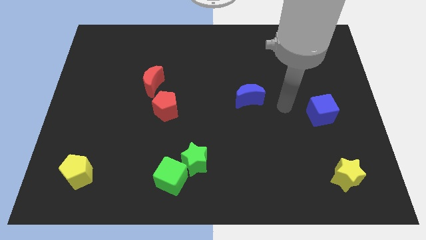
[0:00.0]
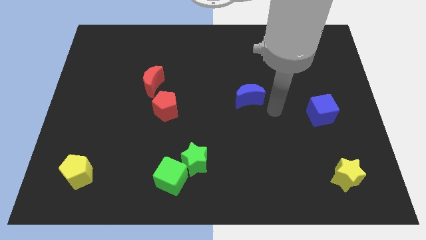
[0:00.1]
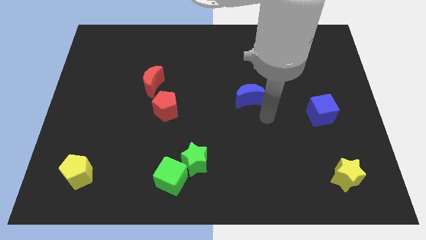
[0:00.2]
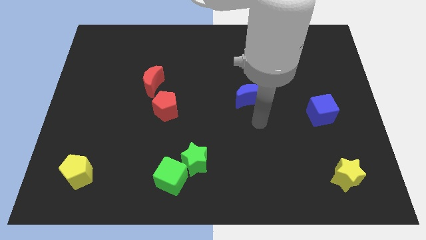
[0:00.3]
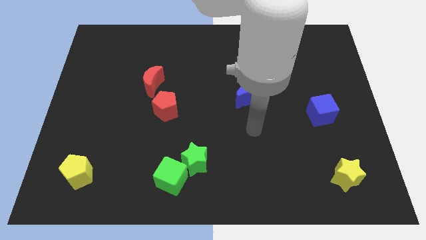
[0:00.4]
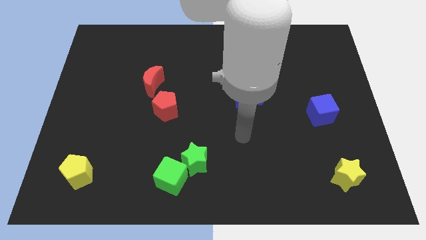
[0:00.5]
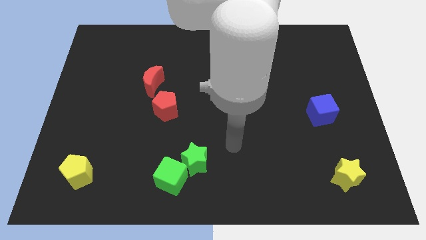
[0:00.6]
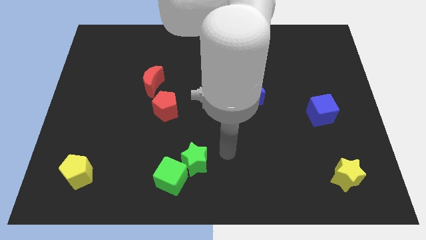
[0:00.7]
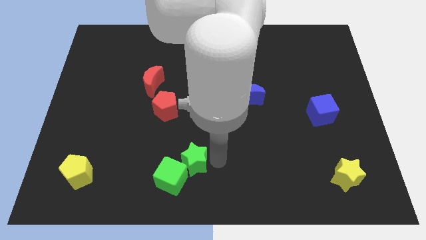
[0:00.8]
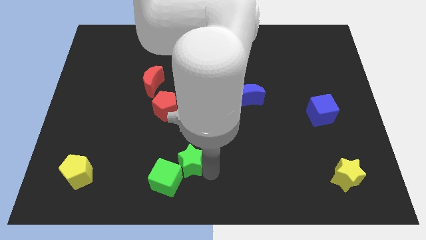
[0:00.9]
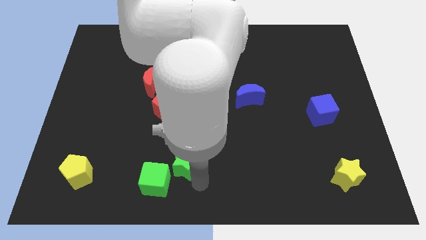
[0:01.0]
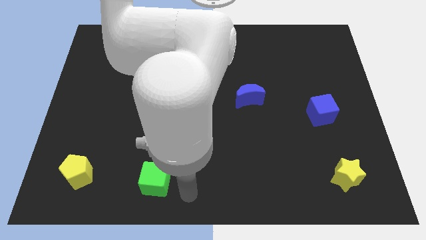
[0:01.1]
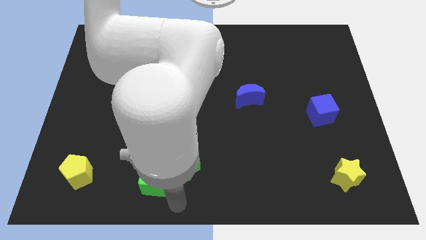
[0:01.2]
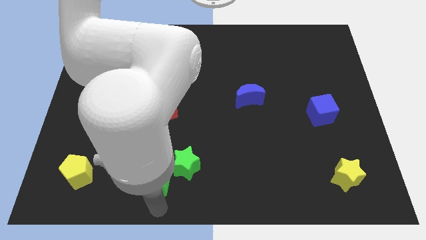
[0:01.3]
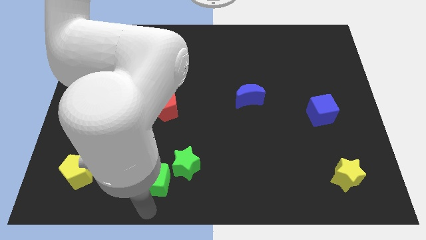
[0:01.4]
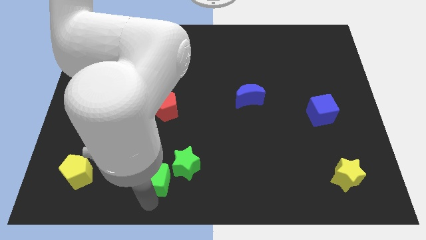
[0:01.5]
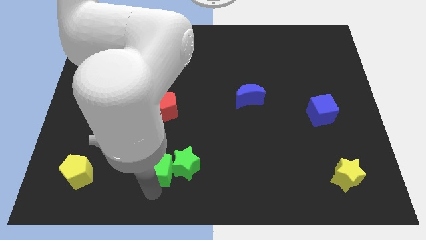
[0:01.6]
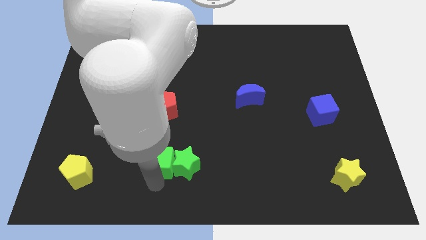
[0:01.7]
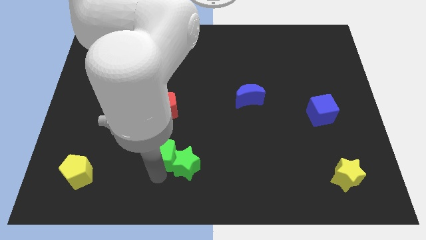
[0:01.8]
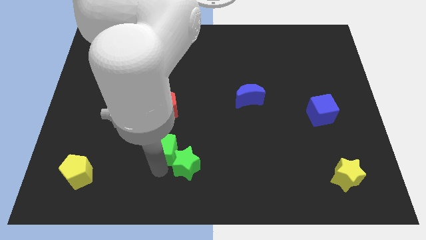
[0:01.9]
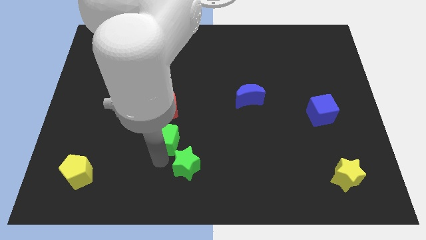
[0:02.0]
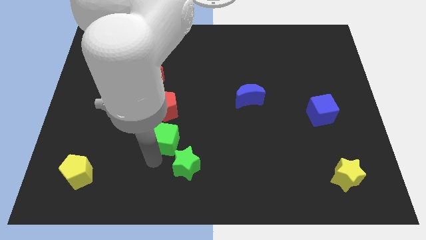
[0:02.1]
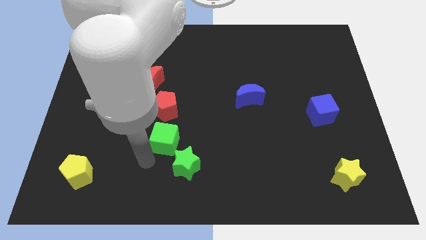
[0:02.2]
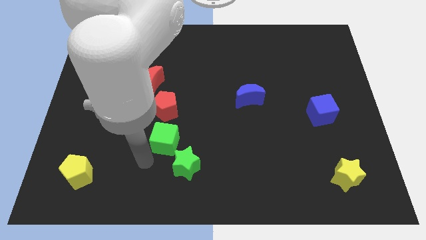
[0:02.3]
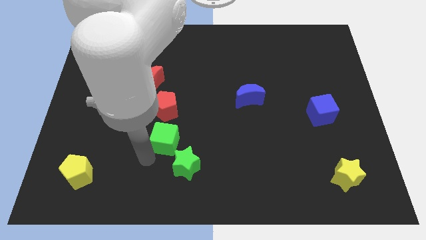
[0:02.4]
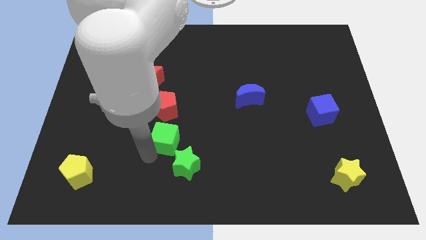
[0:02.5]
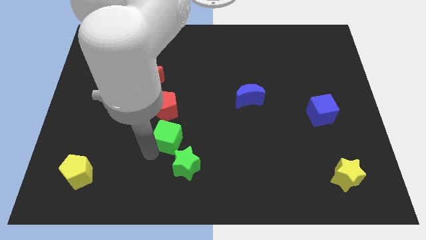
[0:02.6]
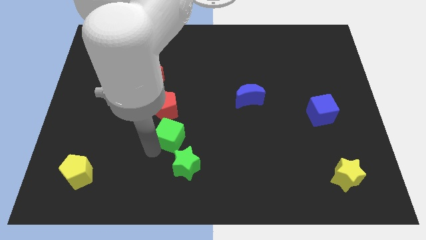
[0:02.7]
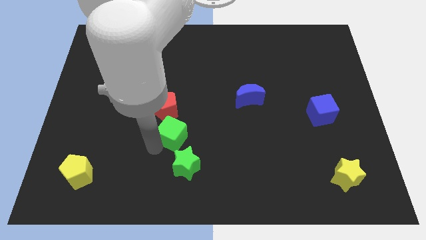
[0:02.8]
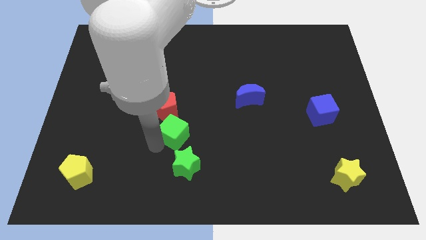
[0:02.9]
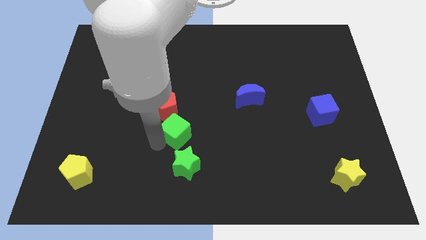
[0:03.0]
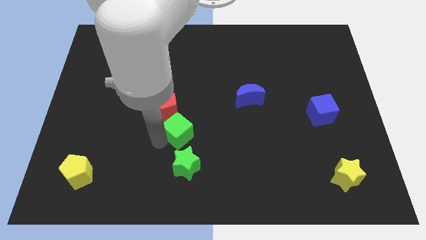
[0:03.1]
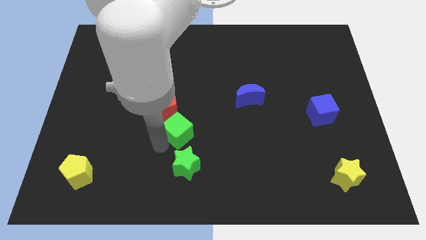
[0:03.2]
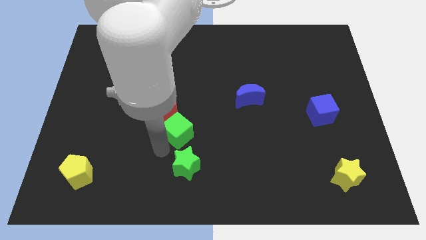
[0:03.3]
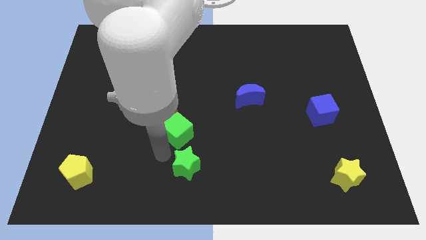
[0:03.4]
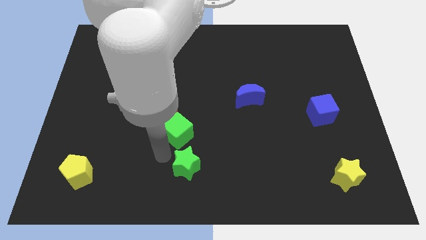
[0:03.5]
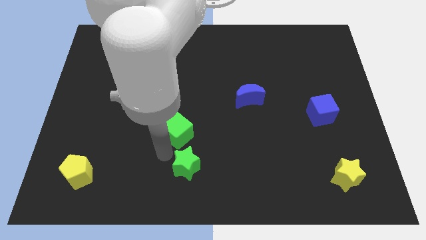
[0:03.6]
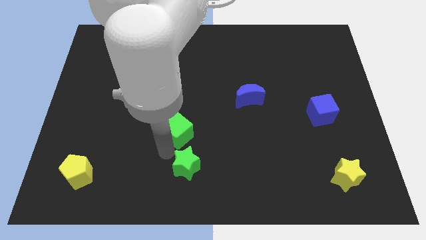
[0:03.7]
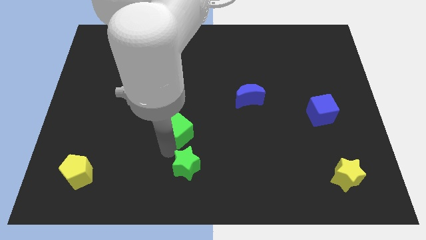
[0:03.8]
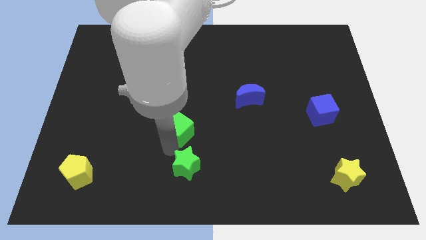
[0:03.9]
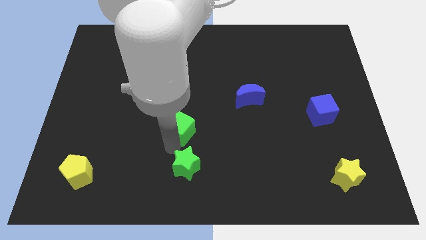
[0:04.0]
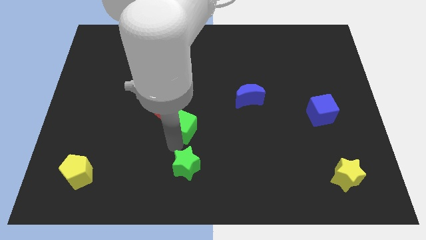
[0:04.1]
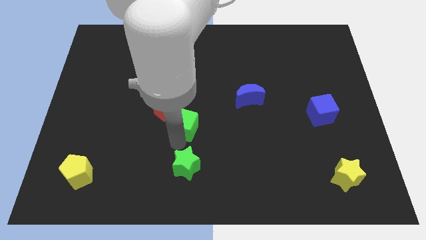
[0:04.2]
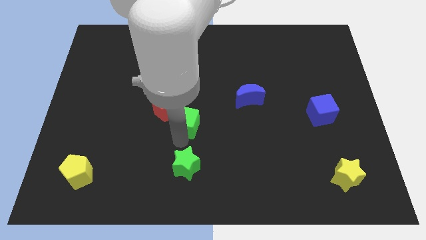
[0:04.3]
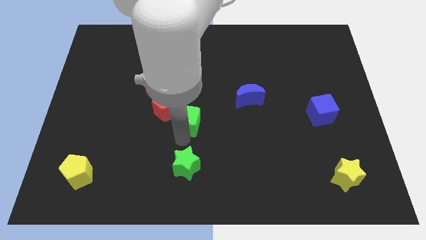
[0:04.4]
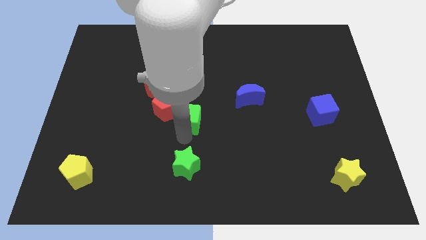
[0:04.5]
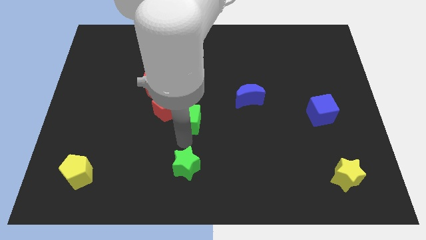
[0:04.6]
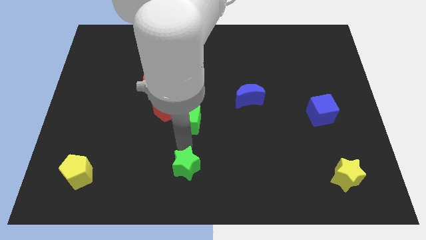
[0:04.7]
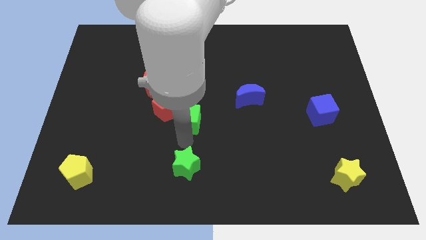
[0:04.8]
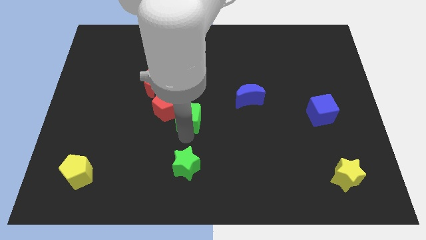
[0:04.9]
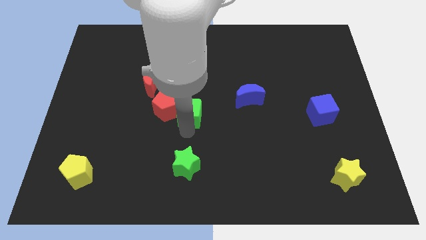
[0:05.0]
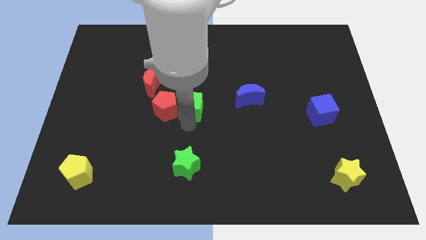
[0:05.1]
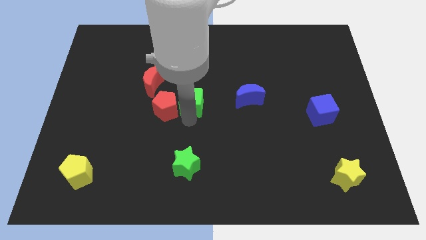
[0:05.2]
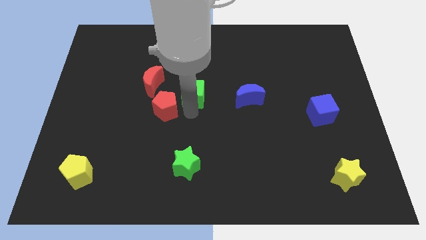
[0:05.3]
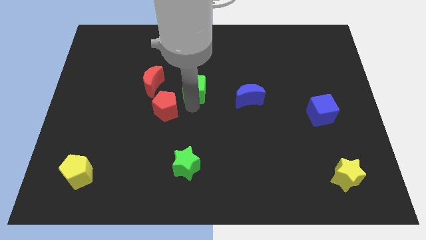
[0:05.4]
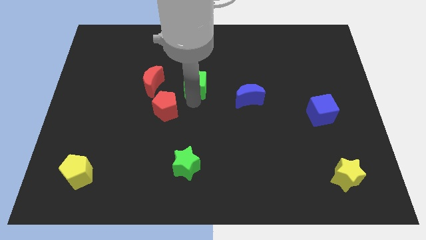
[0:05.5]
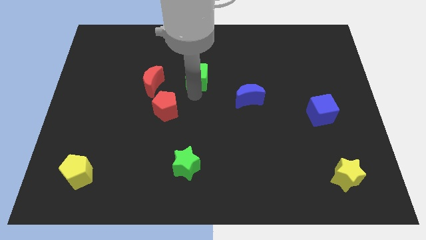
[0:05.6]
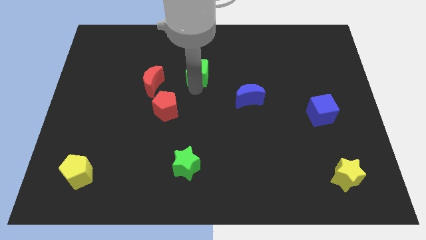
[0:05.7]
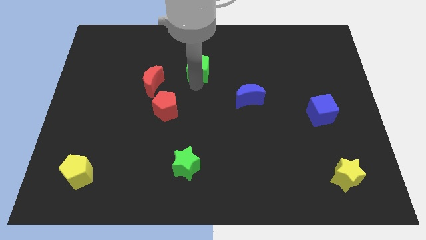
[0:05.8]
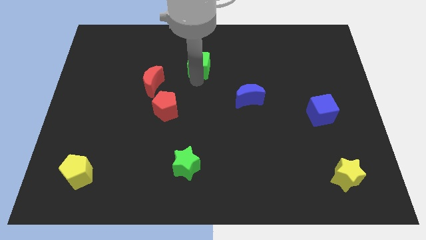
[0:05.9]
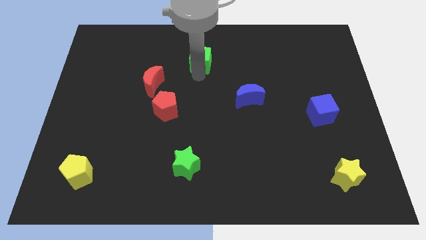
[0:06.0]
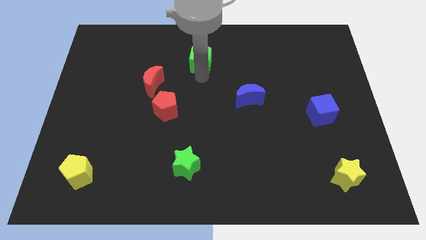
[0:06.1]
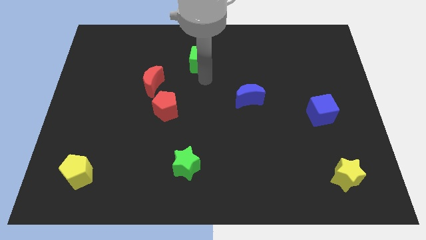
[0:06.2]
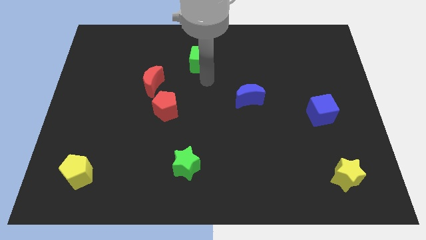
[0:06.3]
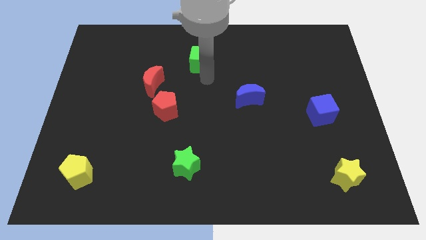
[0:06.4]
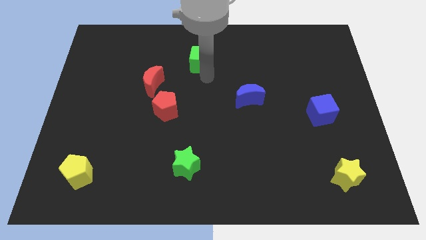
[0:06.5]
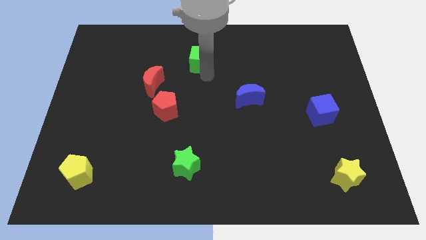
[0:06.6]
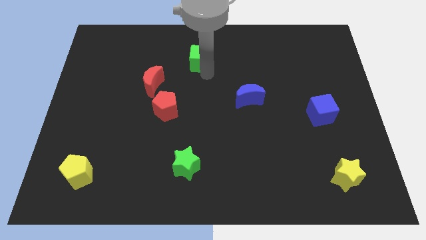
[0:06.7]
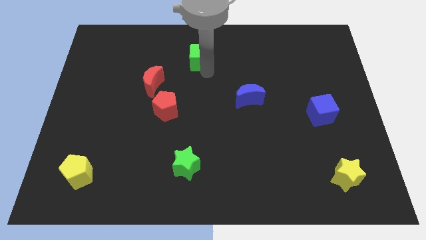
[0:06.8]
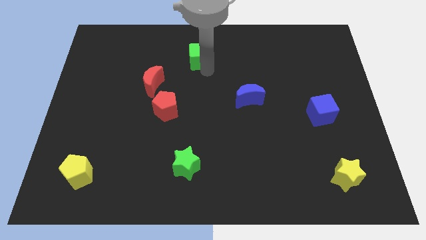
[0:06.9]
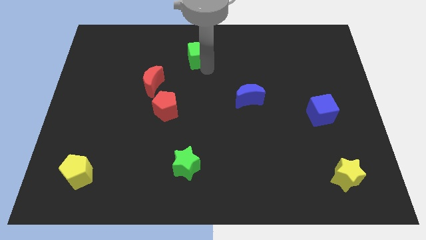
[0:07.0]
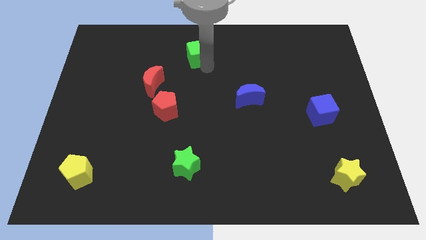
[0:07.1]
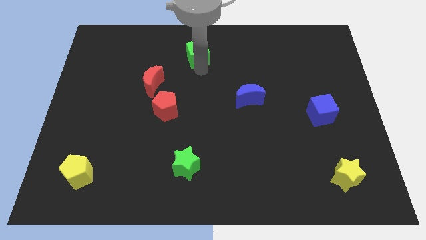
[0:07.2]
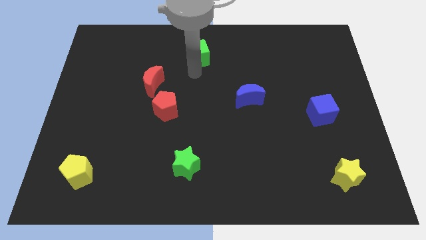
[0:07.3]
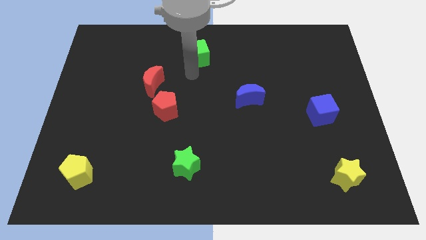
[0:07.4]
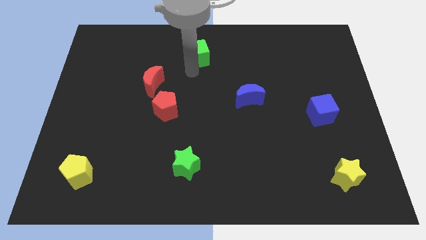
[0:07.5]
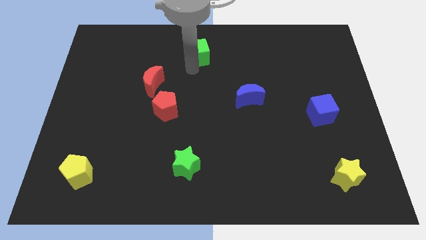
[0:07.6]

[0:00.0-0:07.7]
put the green cube to the top side
